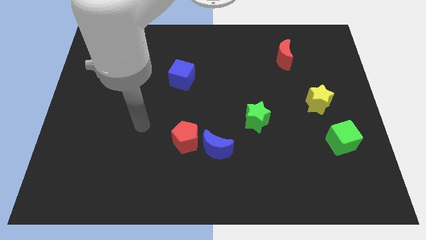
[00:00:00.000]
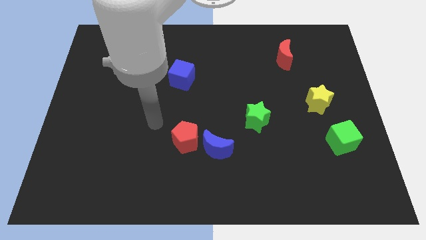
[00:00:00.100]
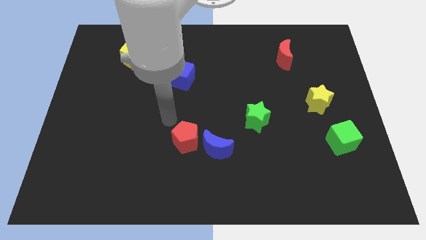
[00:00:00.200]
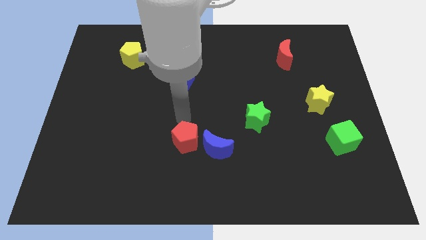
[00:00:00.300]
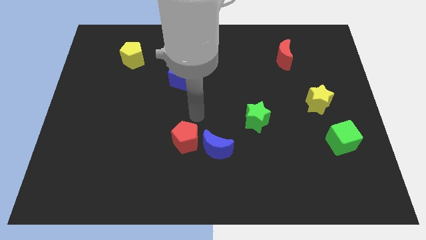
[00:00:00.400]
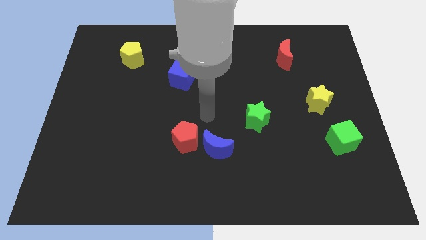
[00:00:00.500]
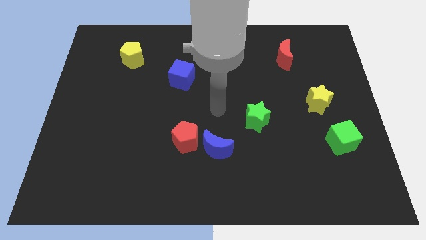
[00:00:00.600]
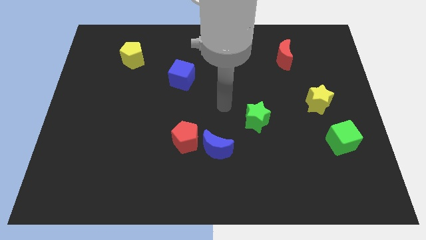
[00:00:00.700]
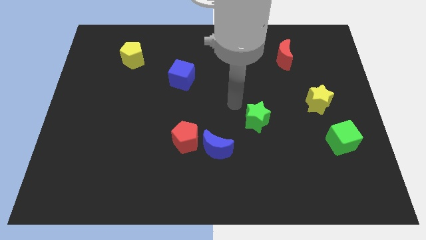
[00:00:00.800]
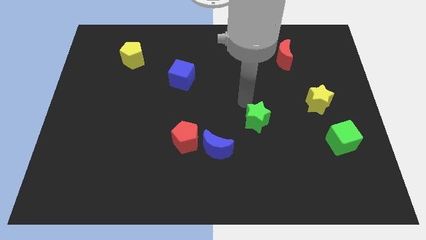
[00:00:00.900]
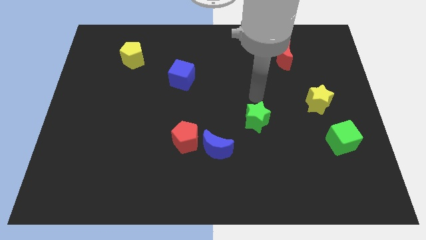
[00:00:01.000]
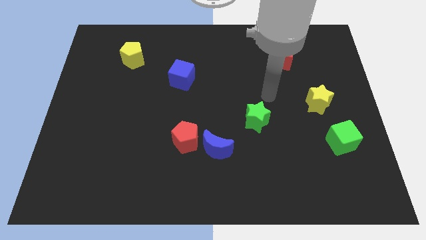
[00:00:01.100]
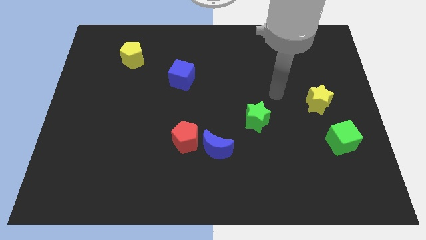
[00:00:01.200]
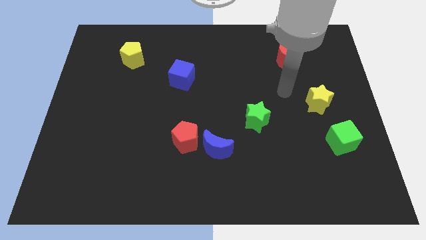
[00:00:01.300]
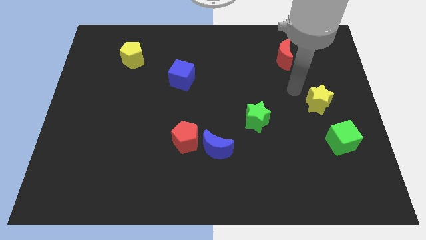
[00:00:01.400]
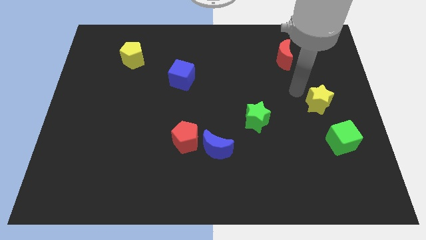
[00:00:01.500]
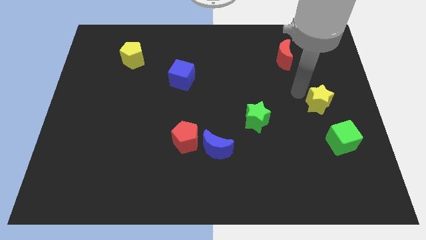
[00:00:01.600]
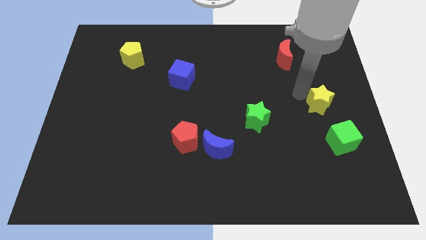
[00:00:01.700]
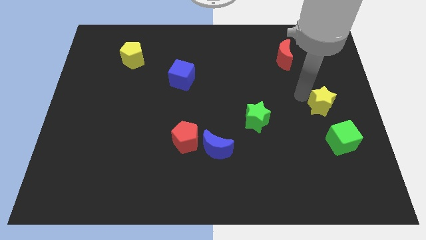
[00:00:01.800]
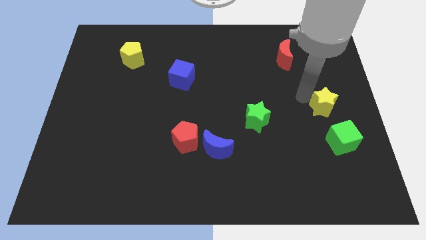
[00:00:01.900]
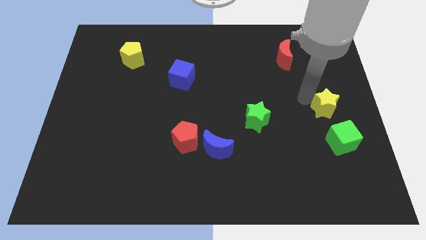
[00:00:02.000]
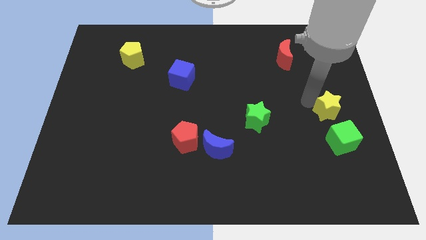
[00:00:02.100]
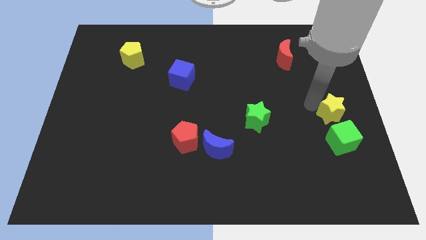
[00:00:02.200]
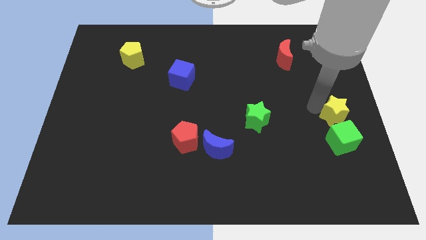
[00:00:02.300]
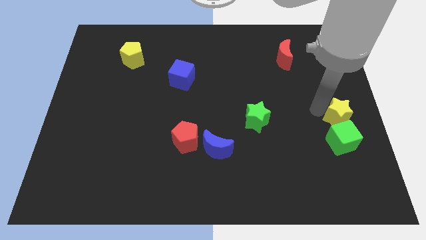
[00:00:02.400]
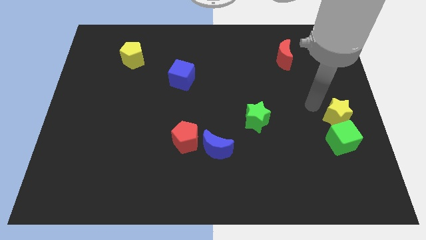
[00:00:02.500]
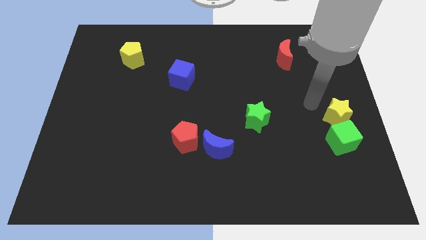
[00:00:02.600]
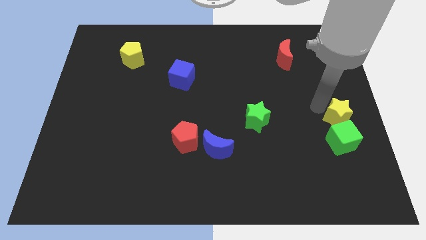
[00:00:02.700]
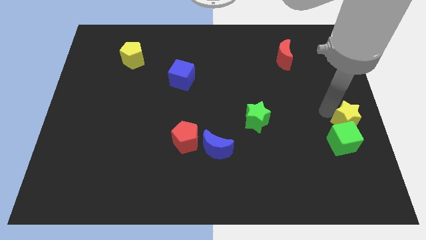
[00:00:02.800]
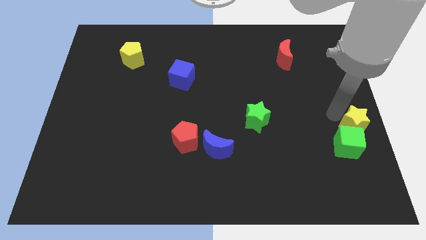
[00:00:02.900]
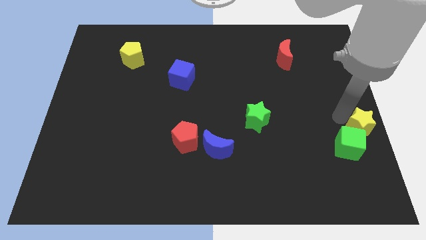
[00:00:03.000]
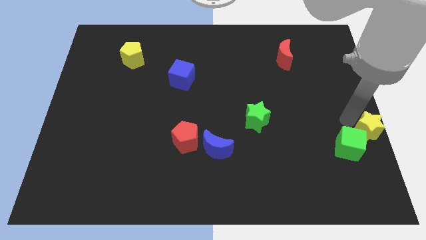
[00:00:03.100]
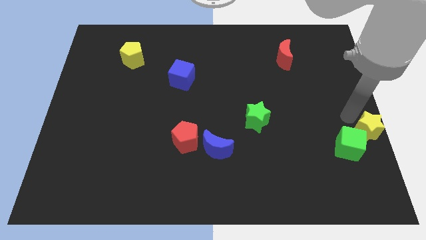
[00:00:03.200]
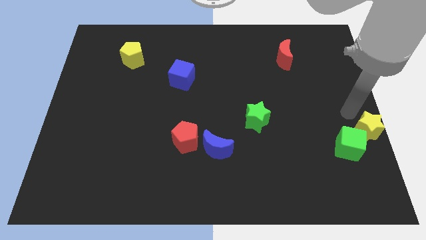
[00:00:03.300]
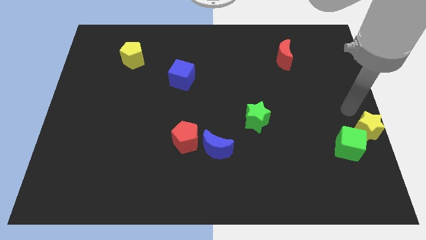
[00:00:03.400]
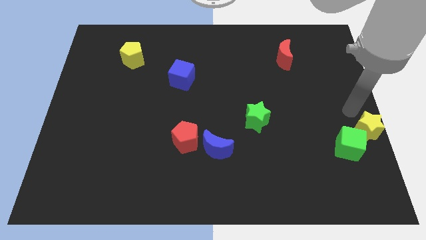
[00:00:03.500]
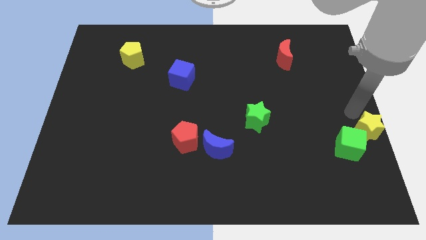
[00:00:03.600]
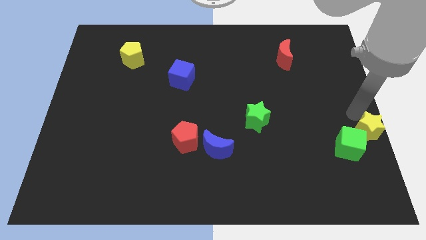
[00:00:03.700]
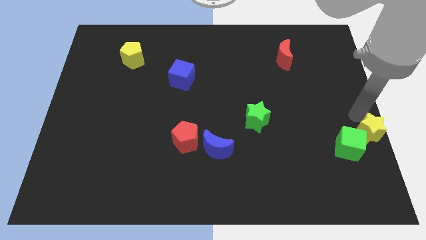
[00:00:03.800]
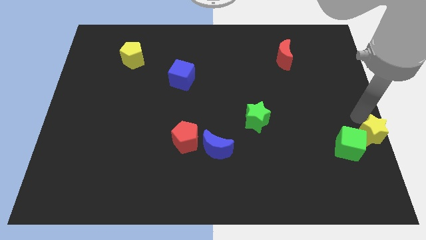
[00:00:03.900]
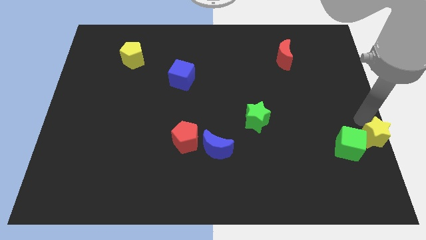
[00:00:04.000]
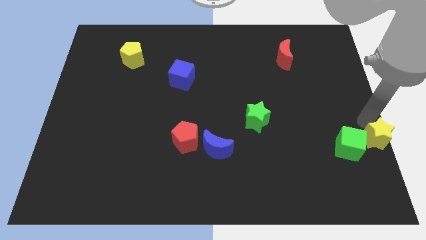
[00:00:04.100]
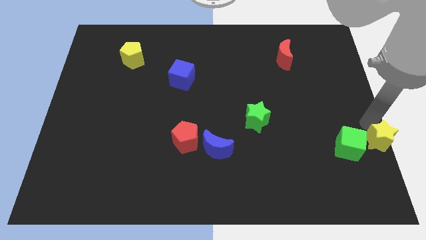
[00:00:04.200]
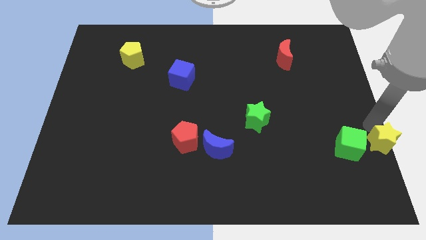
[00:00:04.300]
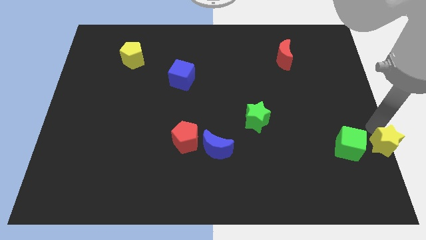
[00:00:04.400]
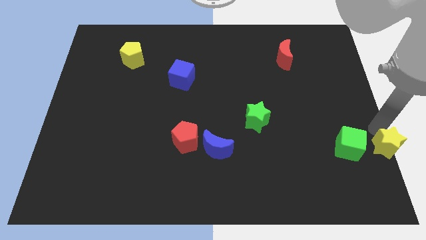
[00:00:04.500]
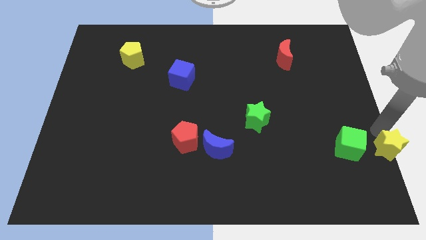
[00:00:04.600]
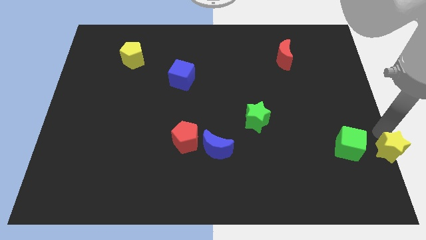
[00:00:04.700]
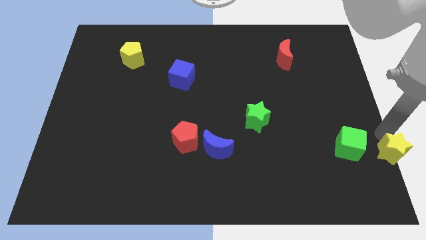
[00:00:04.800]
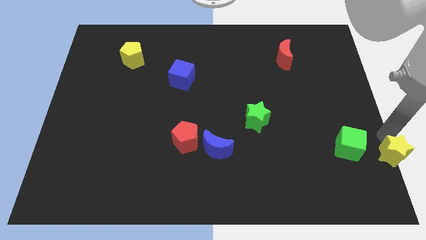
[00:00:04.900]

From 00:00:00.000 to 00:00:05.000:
push the yellow star to the lower right corner

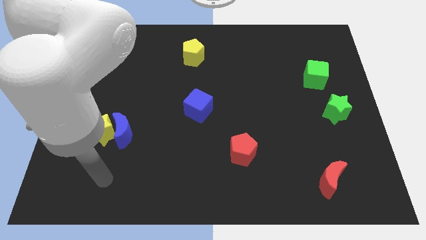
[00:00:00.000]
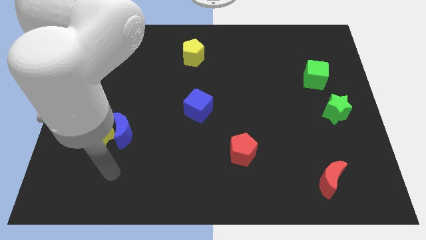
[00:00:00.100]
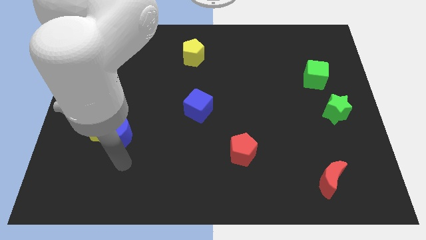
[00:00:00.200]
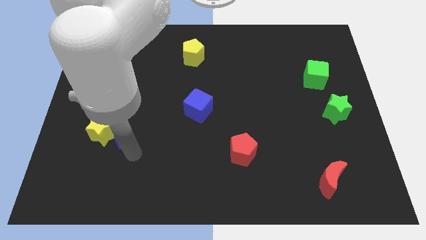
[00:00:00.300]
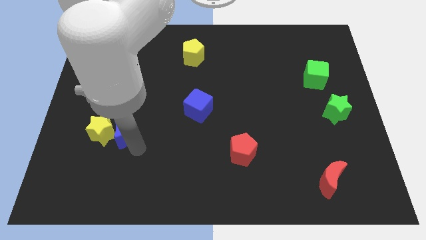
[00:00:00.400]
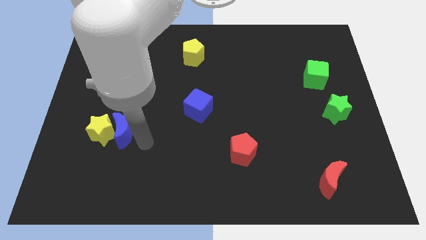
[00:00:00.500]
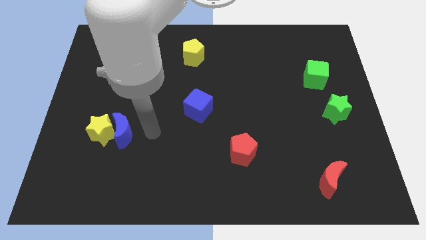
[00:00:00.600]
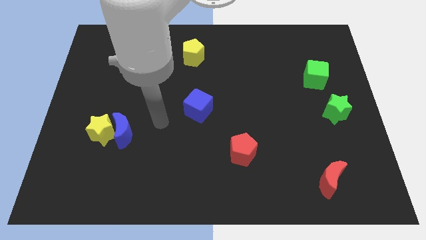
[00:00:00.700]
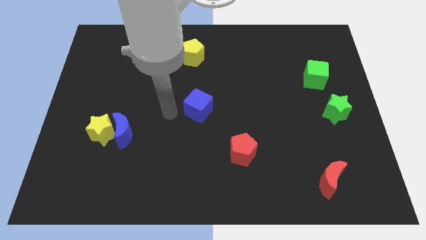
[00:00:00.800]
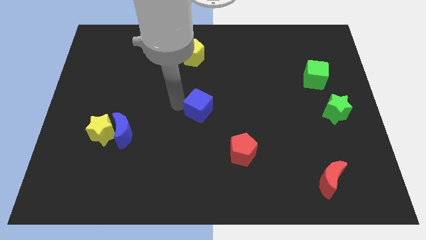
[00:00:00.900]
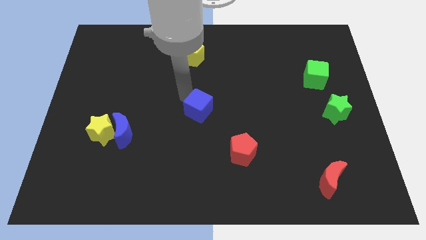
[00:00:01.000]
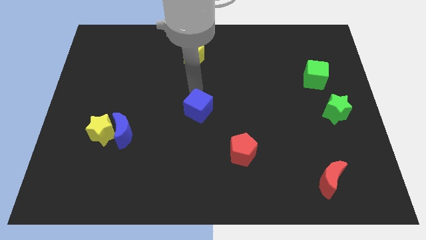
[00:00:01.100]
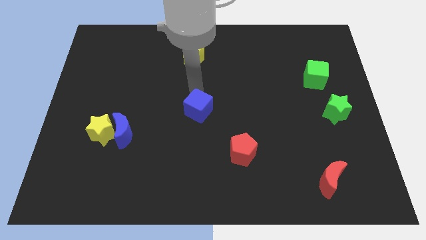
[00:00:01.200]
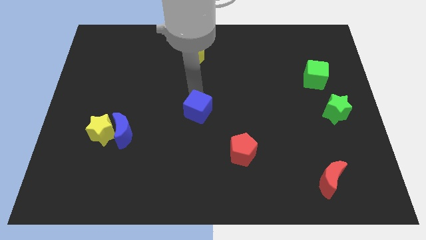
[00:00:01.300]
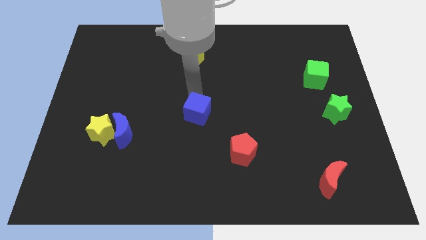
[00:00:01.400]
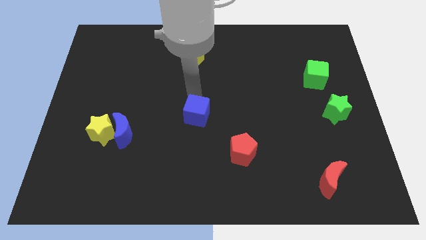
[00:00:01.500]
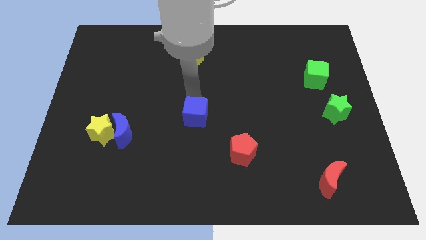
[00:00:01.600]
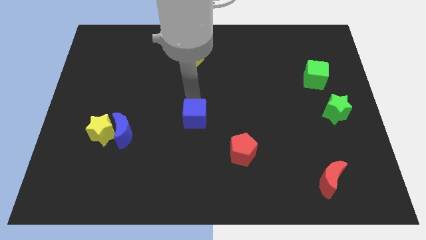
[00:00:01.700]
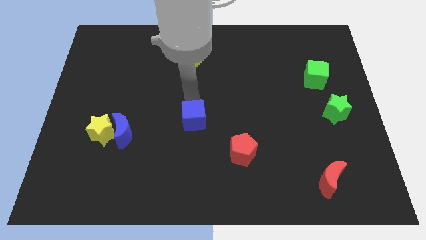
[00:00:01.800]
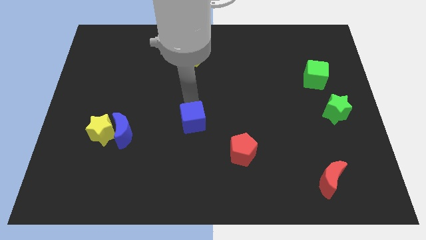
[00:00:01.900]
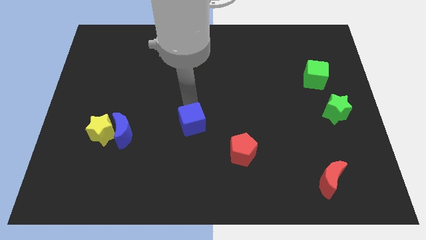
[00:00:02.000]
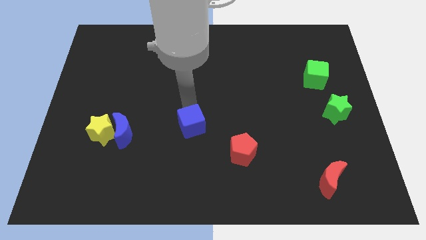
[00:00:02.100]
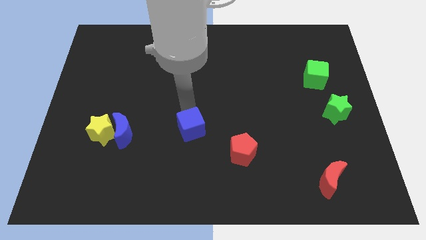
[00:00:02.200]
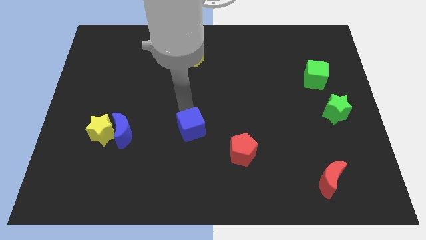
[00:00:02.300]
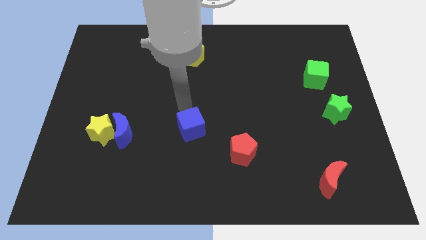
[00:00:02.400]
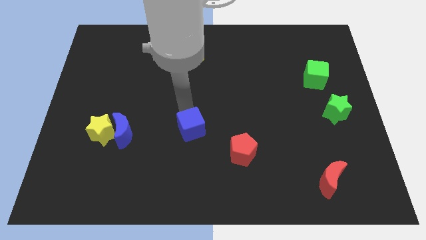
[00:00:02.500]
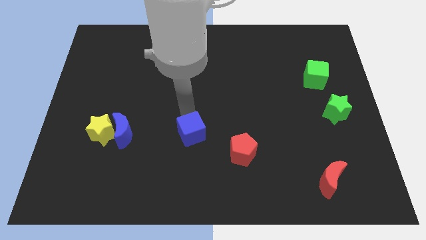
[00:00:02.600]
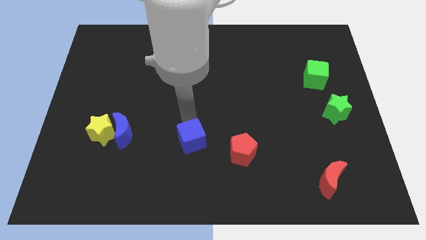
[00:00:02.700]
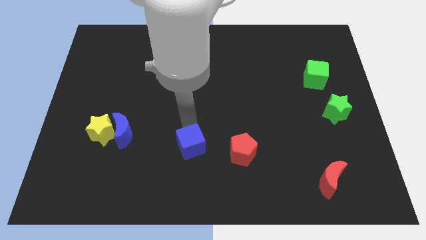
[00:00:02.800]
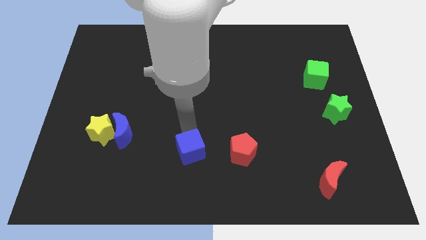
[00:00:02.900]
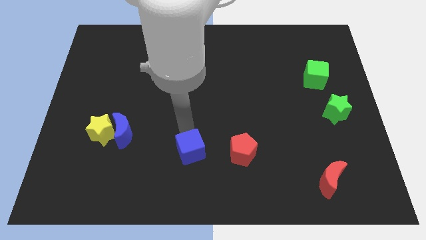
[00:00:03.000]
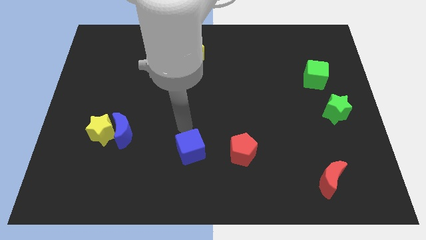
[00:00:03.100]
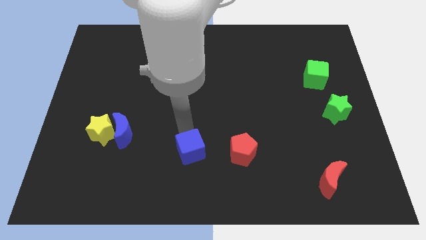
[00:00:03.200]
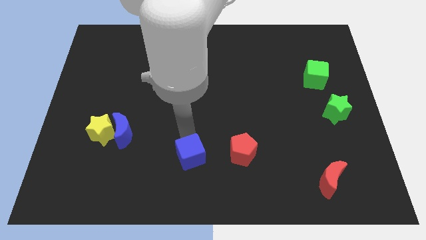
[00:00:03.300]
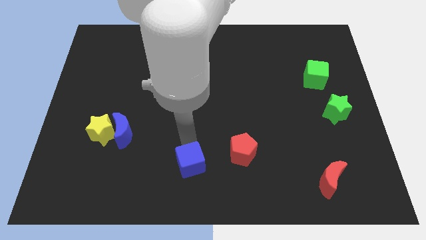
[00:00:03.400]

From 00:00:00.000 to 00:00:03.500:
push the blue cube to the bottom side
